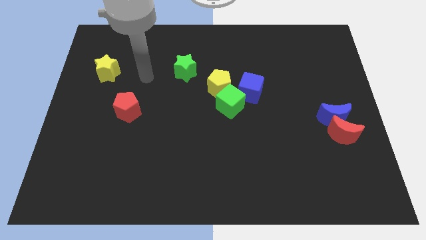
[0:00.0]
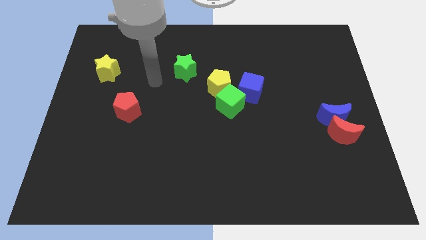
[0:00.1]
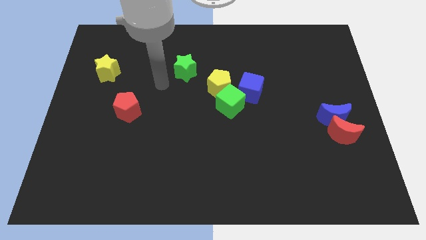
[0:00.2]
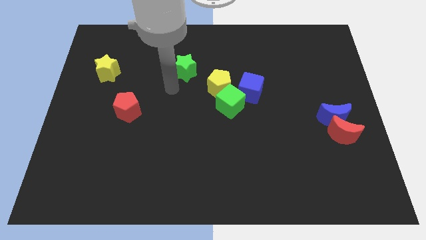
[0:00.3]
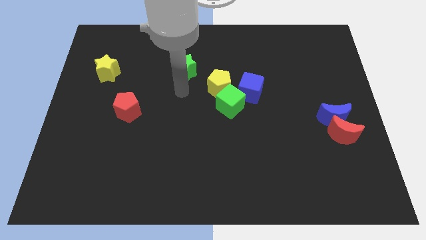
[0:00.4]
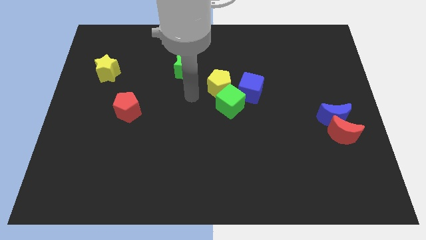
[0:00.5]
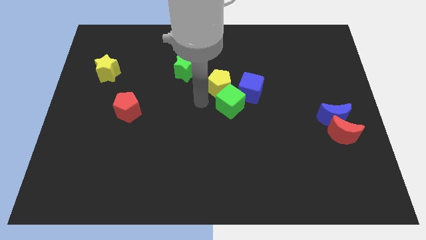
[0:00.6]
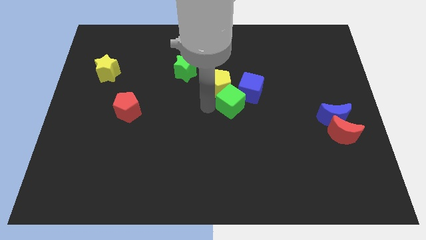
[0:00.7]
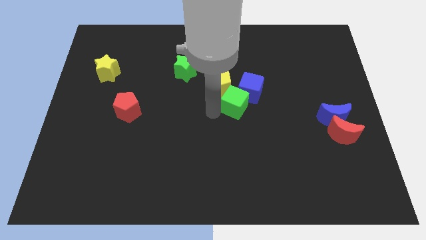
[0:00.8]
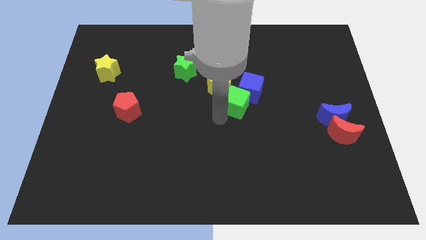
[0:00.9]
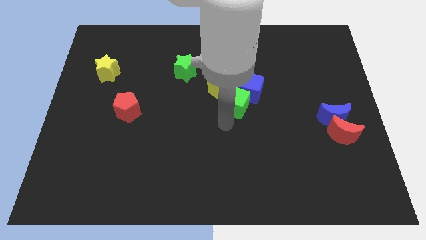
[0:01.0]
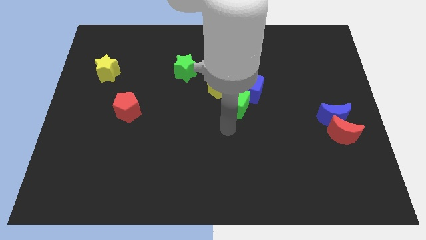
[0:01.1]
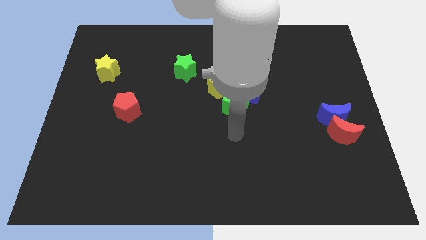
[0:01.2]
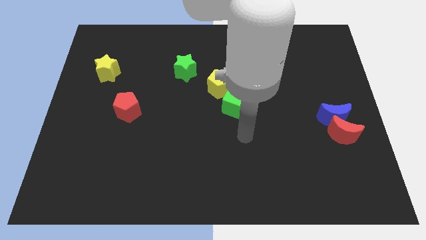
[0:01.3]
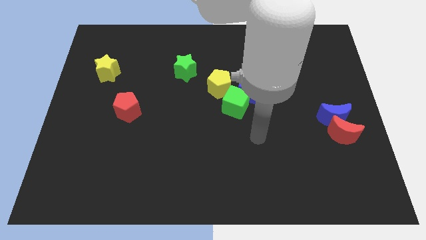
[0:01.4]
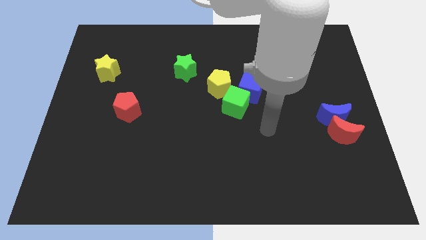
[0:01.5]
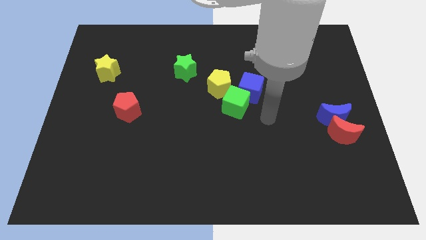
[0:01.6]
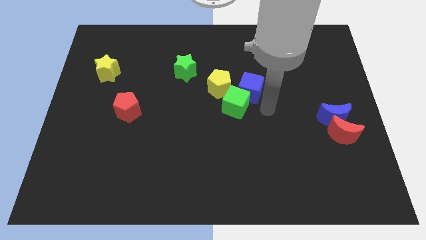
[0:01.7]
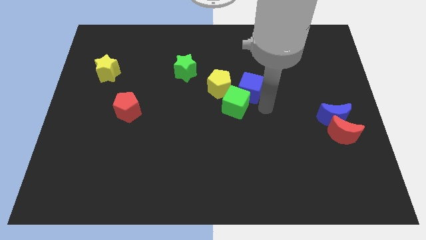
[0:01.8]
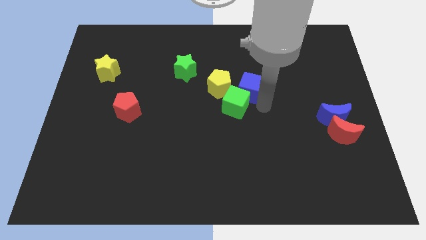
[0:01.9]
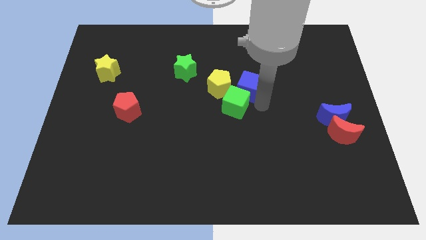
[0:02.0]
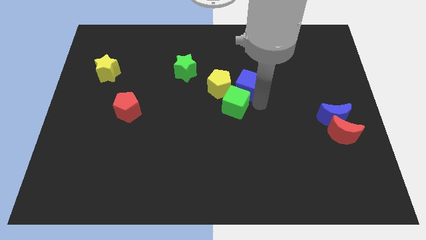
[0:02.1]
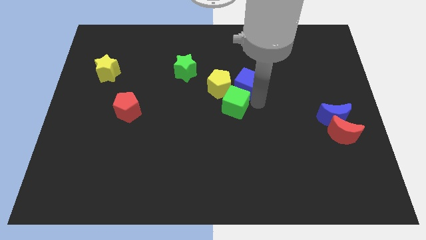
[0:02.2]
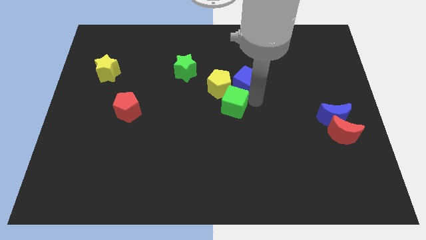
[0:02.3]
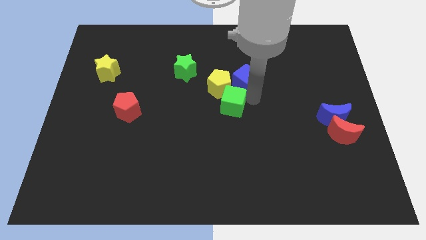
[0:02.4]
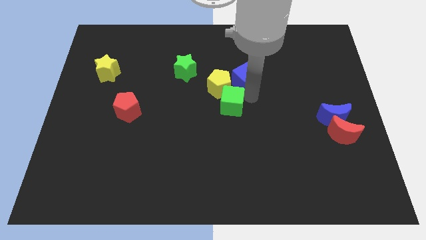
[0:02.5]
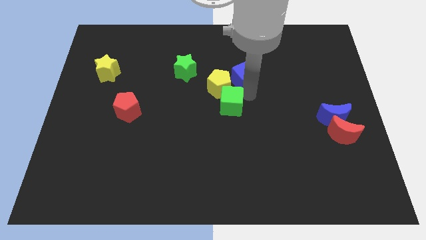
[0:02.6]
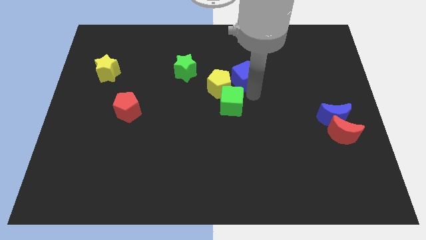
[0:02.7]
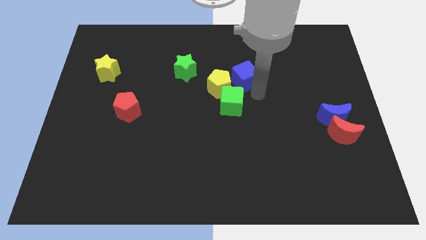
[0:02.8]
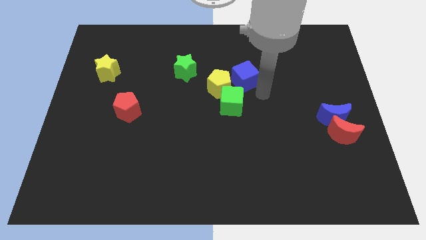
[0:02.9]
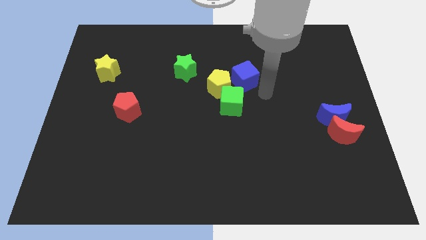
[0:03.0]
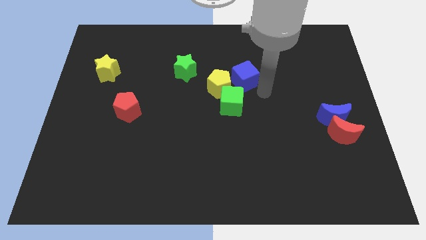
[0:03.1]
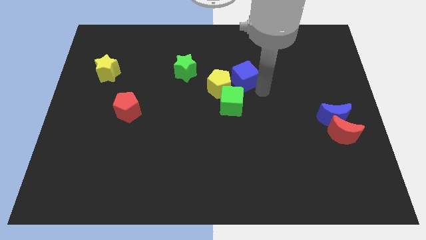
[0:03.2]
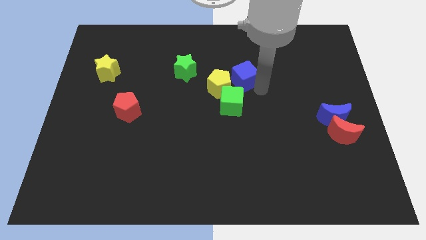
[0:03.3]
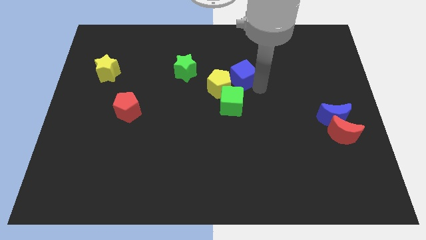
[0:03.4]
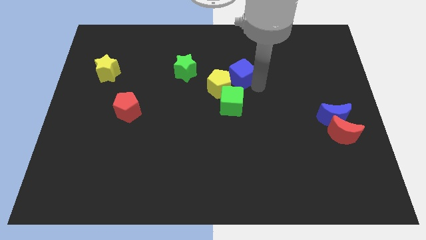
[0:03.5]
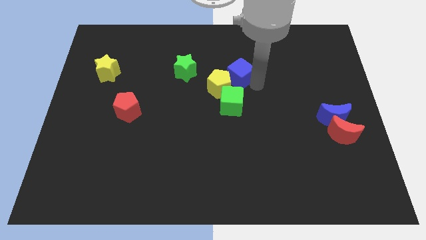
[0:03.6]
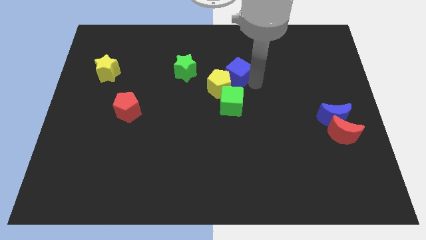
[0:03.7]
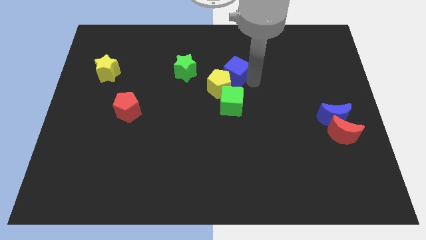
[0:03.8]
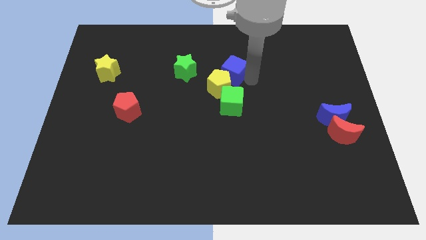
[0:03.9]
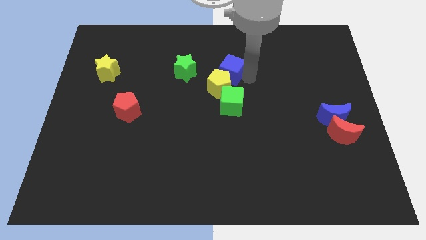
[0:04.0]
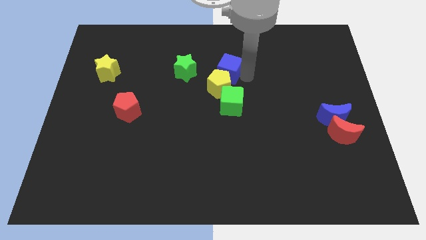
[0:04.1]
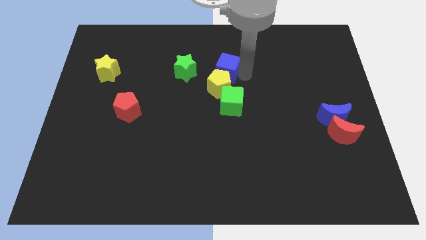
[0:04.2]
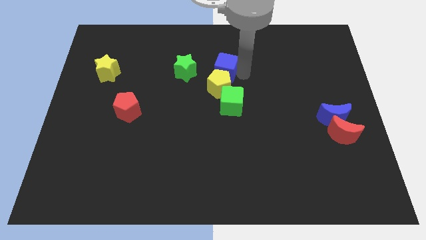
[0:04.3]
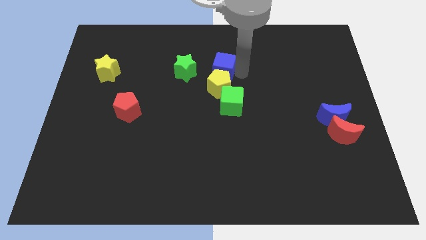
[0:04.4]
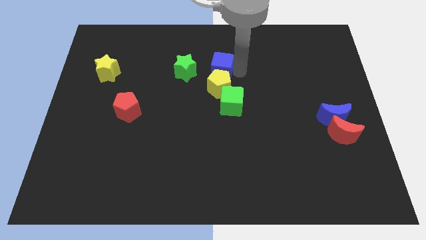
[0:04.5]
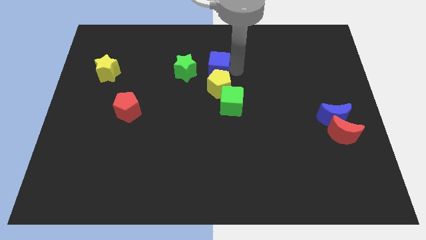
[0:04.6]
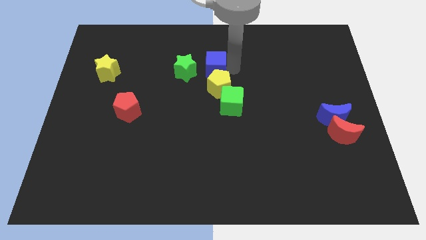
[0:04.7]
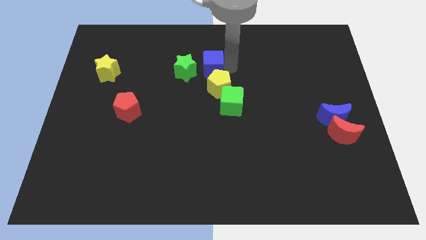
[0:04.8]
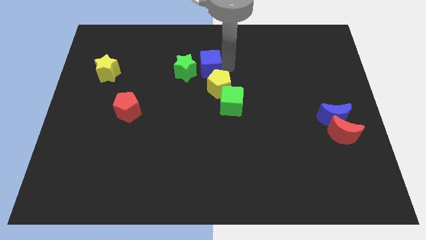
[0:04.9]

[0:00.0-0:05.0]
slide the blue cube next to the green star

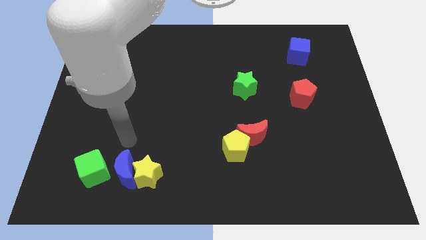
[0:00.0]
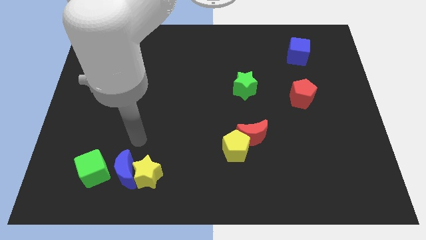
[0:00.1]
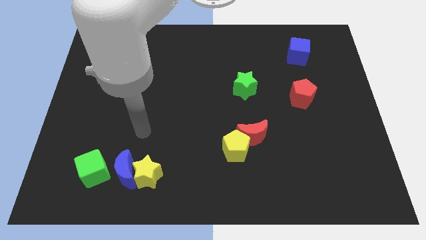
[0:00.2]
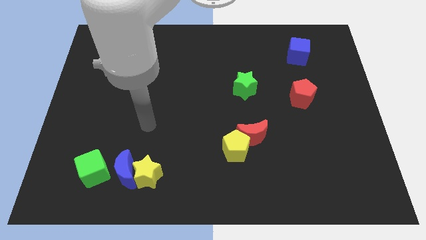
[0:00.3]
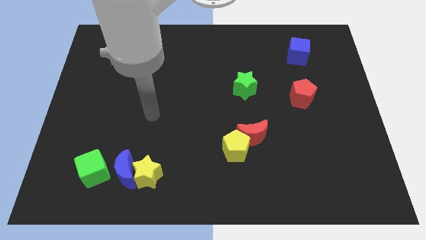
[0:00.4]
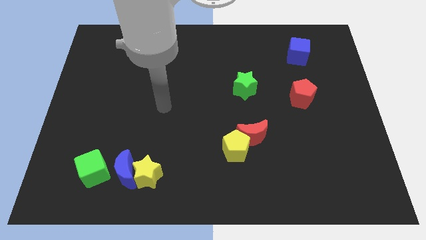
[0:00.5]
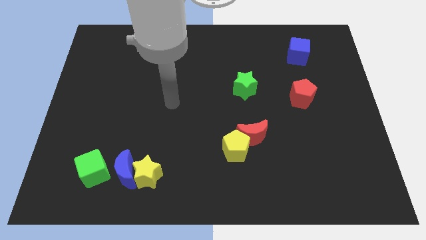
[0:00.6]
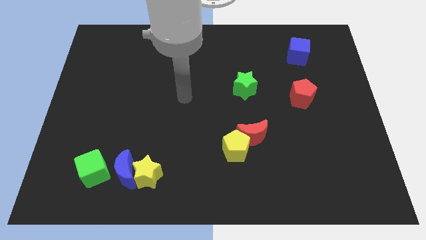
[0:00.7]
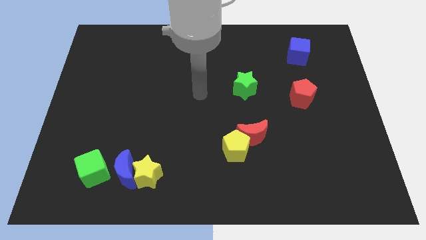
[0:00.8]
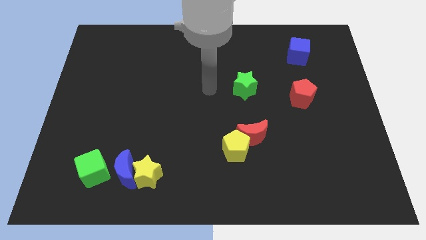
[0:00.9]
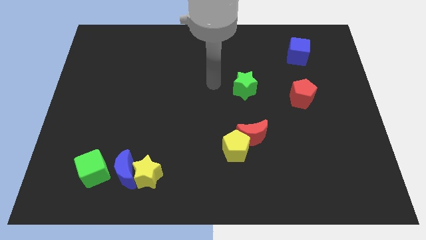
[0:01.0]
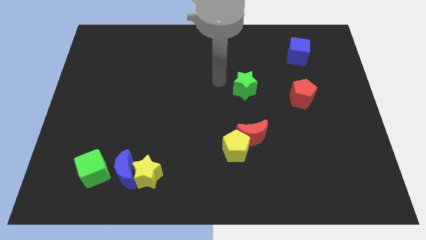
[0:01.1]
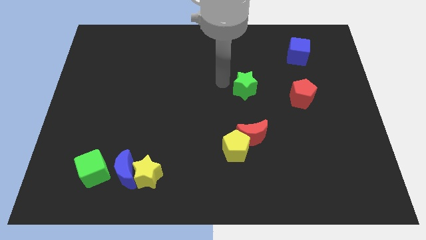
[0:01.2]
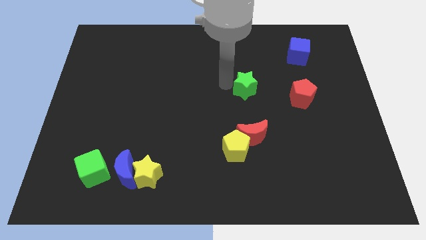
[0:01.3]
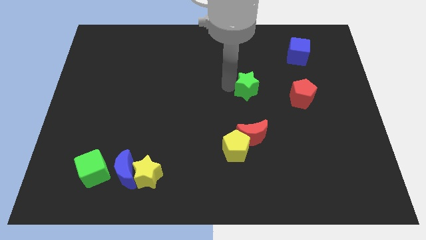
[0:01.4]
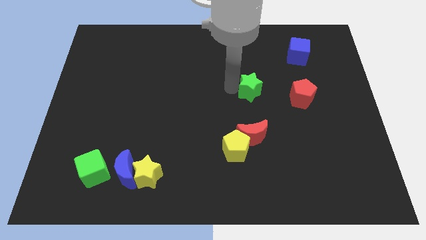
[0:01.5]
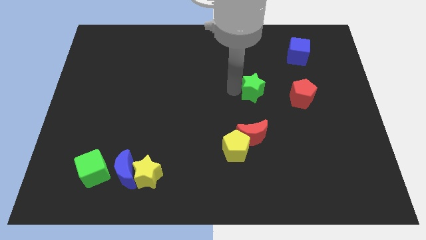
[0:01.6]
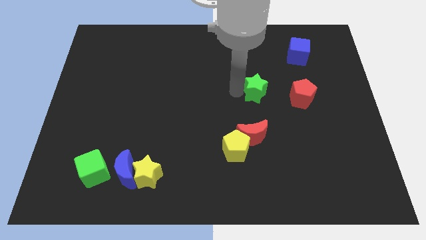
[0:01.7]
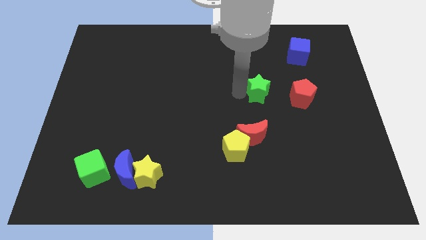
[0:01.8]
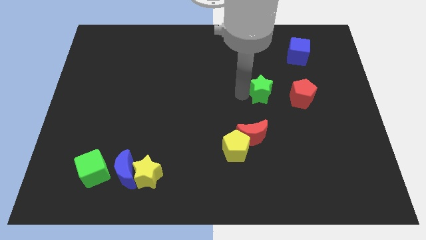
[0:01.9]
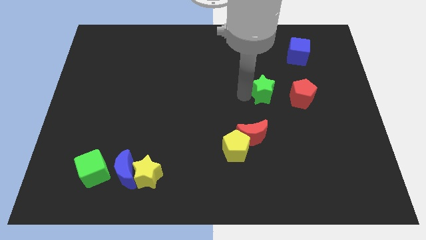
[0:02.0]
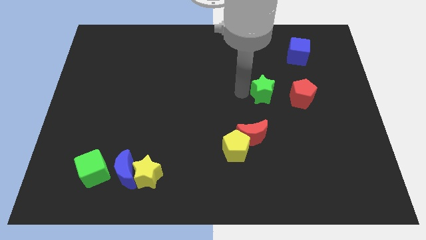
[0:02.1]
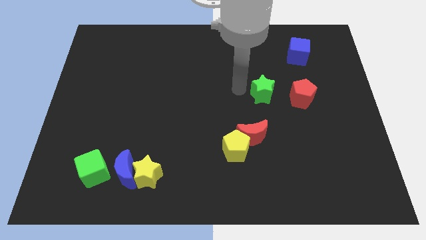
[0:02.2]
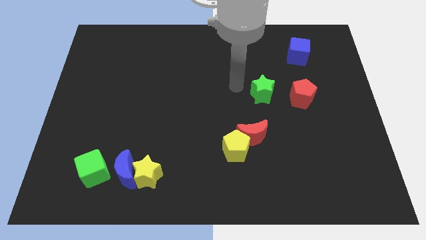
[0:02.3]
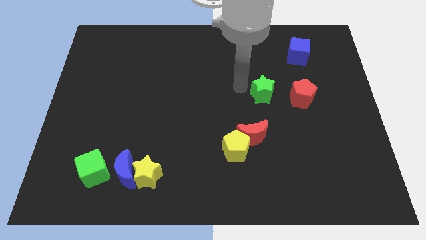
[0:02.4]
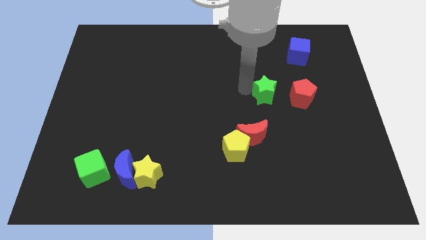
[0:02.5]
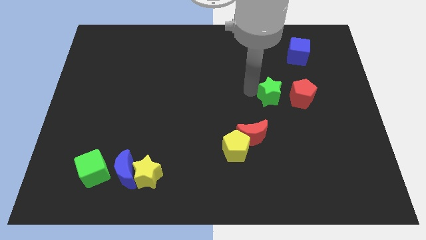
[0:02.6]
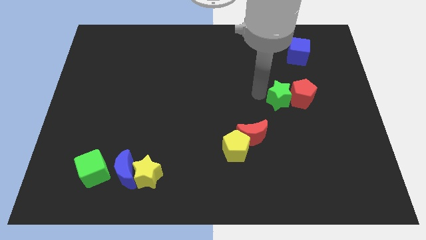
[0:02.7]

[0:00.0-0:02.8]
put the green star to the red pentagon
